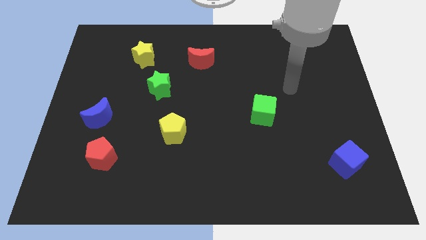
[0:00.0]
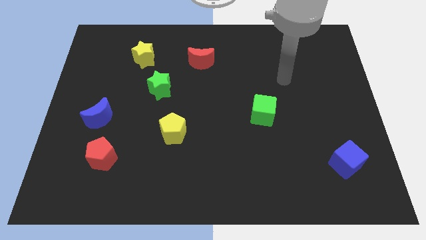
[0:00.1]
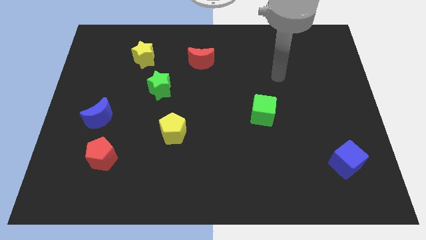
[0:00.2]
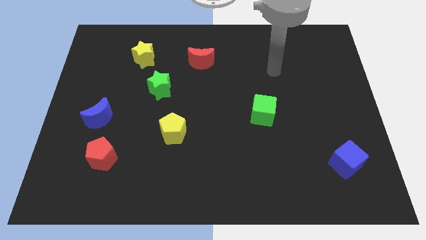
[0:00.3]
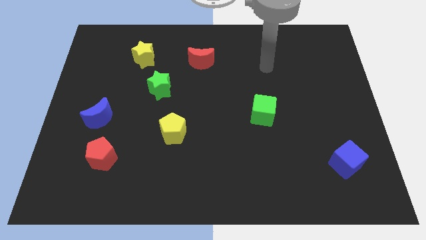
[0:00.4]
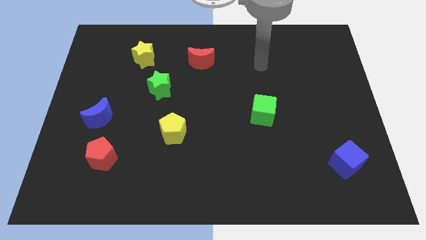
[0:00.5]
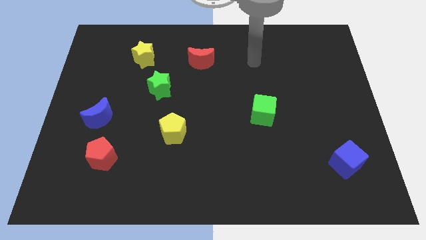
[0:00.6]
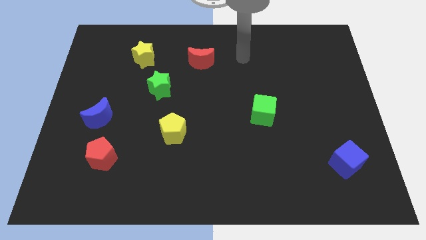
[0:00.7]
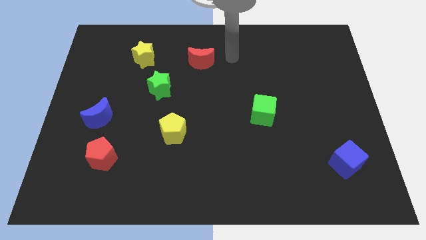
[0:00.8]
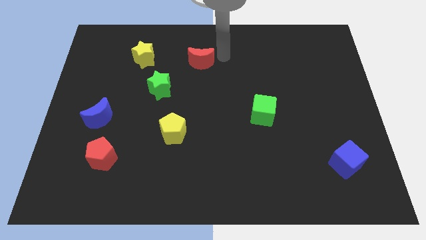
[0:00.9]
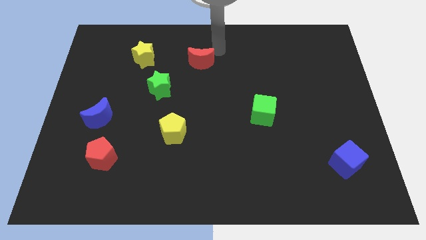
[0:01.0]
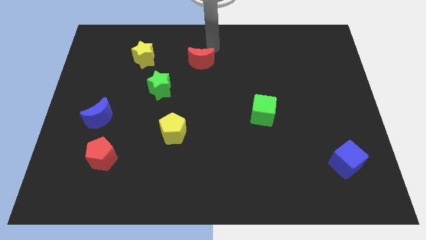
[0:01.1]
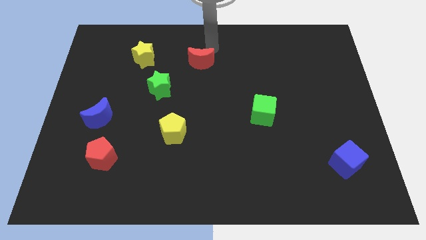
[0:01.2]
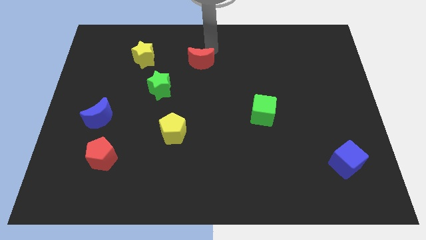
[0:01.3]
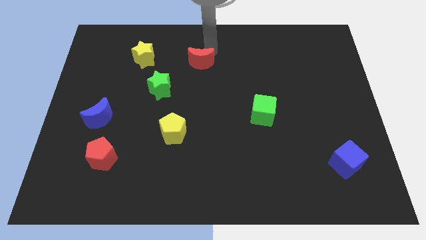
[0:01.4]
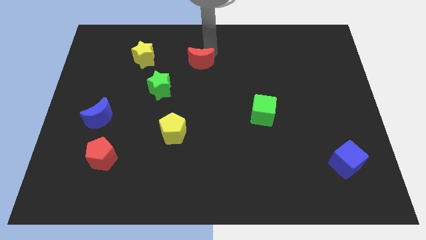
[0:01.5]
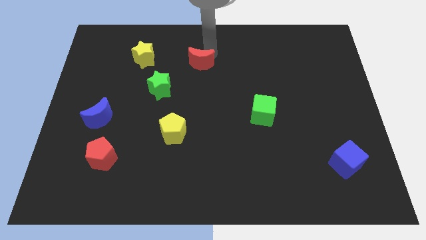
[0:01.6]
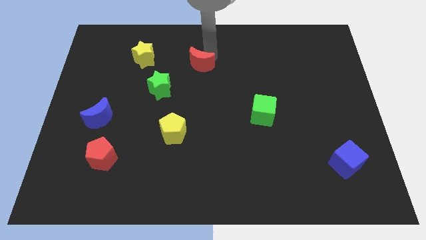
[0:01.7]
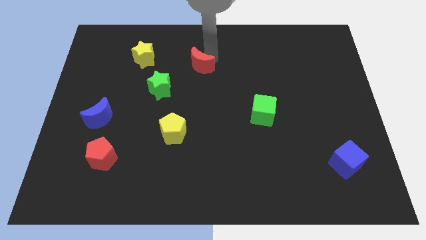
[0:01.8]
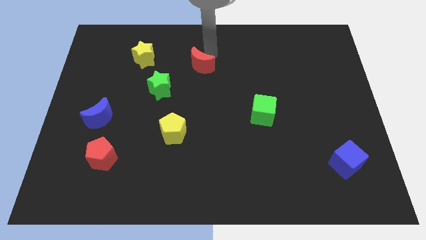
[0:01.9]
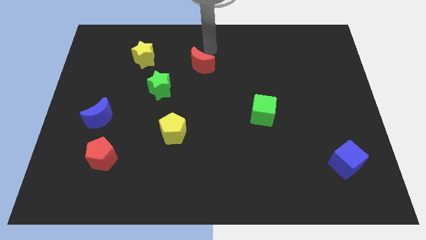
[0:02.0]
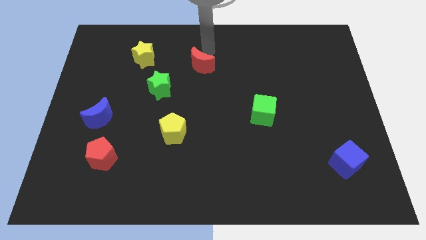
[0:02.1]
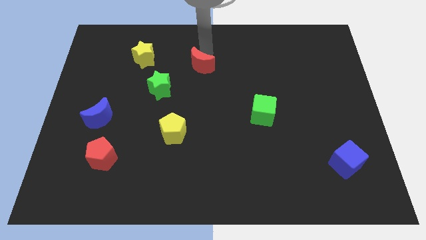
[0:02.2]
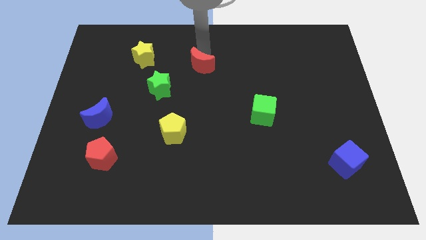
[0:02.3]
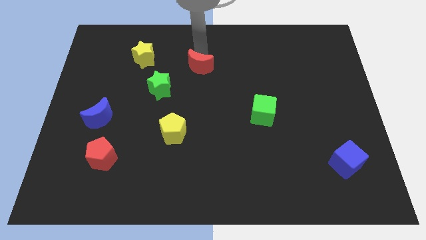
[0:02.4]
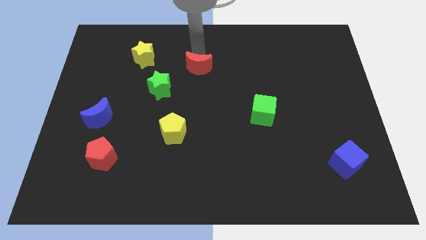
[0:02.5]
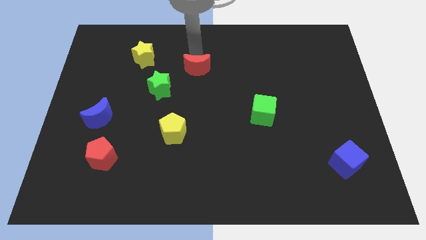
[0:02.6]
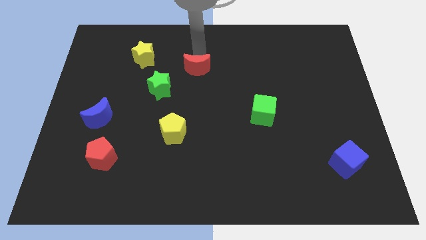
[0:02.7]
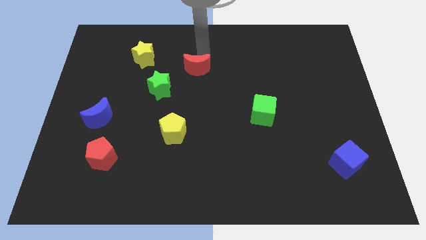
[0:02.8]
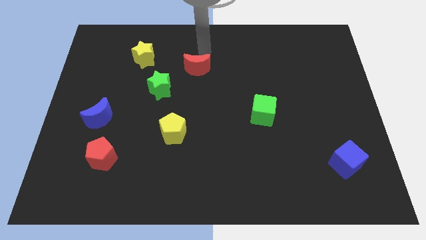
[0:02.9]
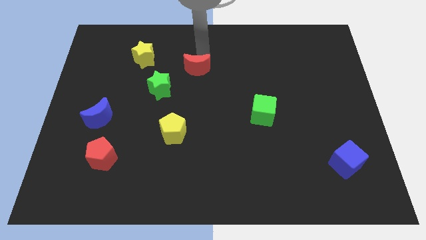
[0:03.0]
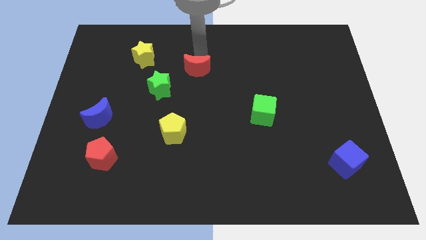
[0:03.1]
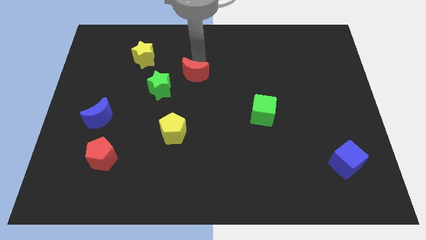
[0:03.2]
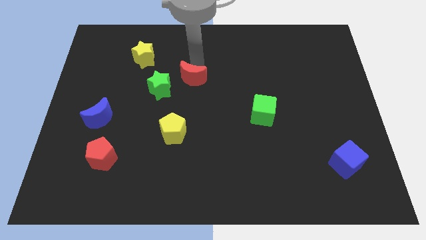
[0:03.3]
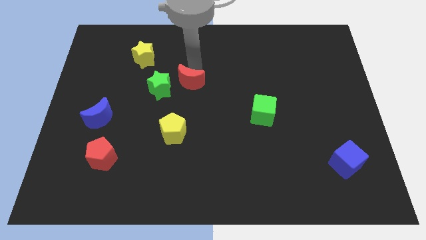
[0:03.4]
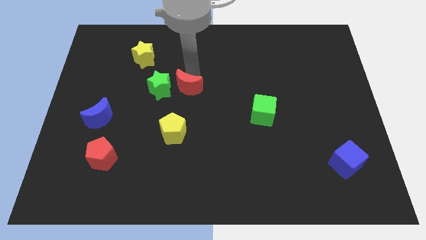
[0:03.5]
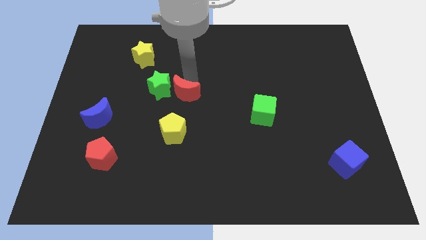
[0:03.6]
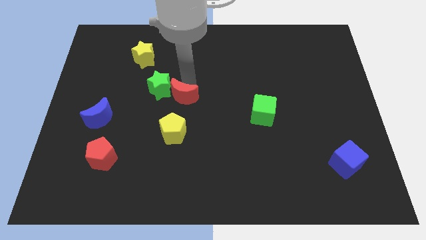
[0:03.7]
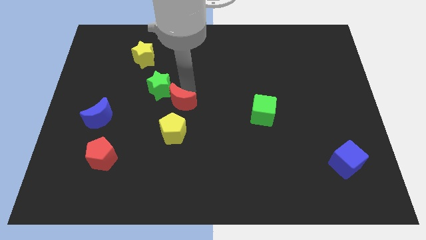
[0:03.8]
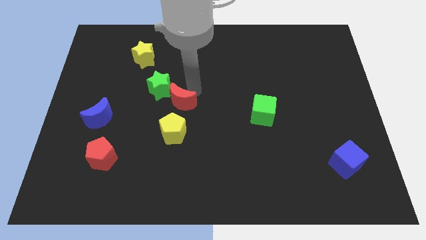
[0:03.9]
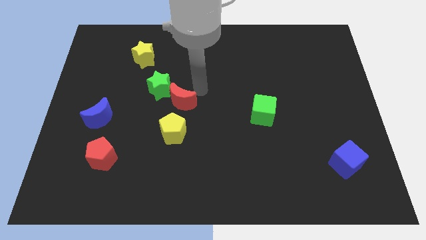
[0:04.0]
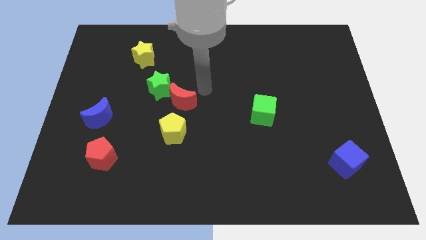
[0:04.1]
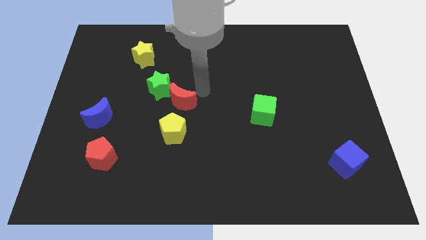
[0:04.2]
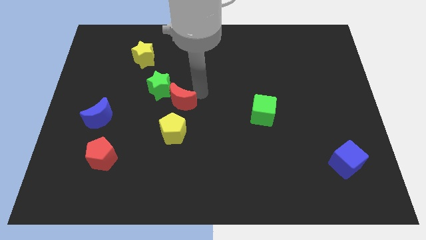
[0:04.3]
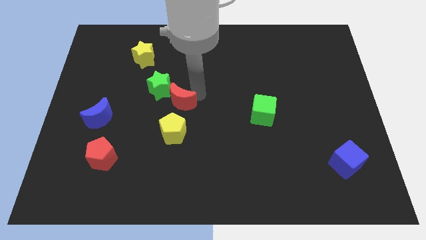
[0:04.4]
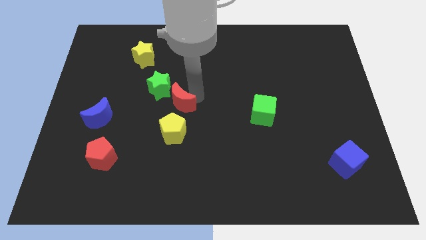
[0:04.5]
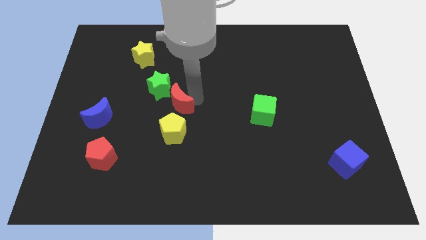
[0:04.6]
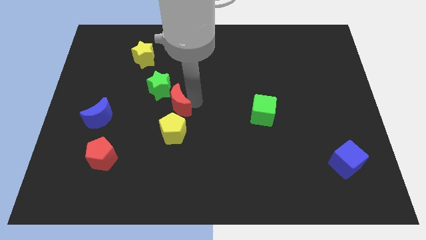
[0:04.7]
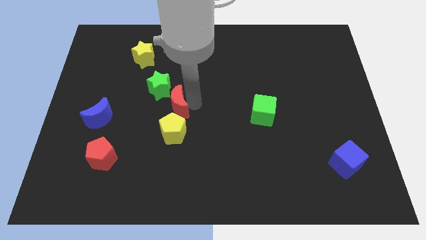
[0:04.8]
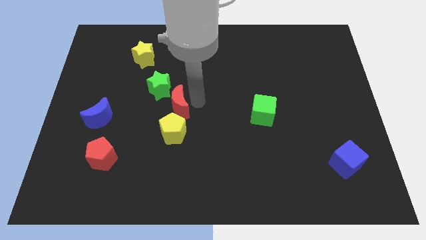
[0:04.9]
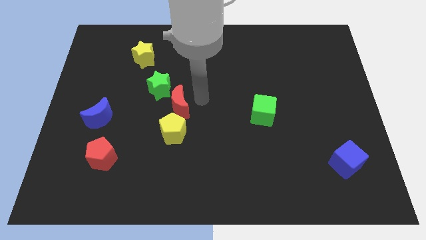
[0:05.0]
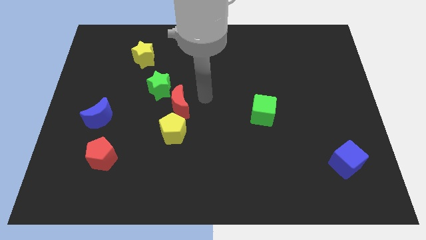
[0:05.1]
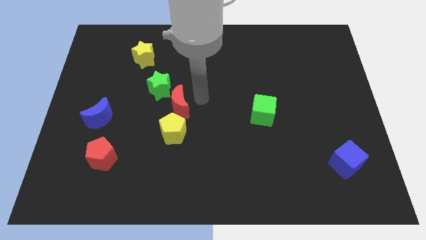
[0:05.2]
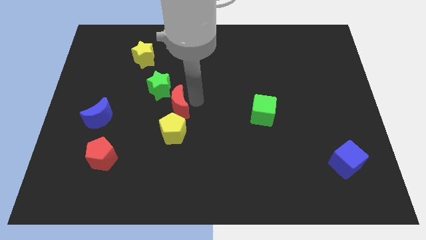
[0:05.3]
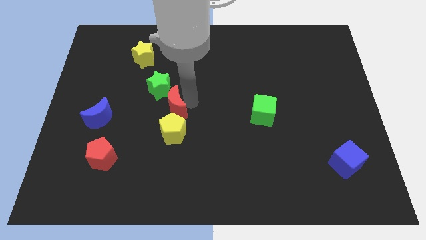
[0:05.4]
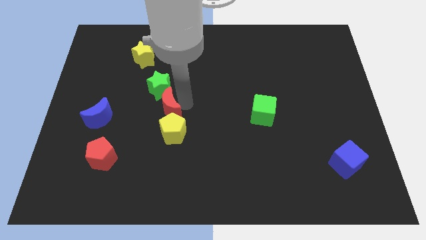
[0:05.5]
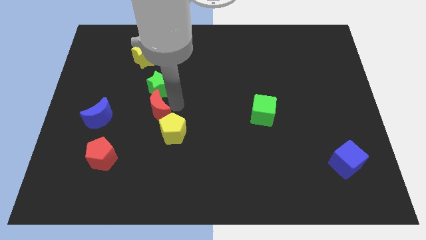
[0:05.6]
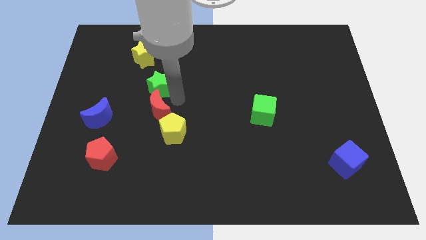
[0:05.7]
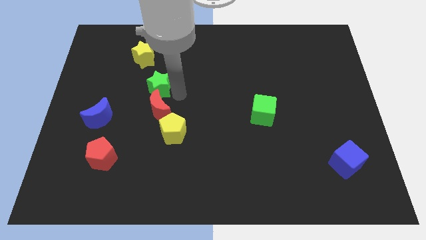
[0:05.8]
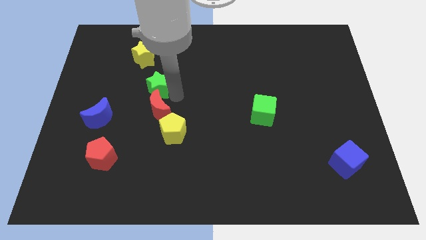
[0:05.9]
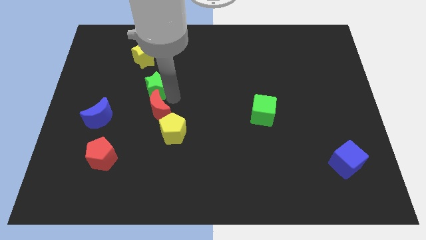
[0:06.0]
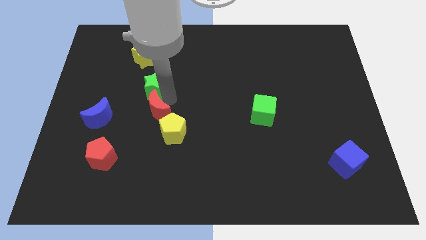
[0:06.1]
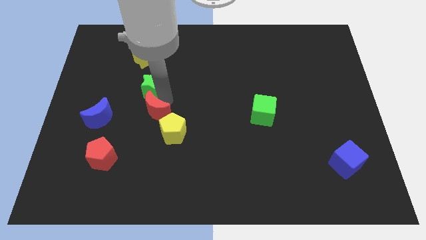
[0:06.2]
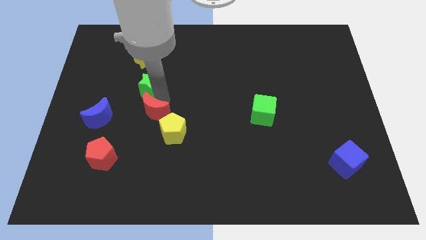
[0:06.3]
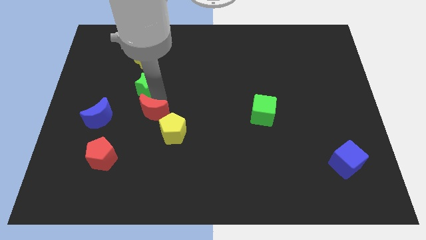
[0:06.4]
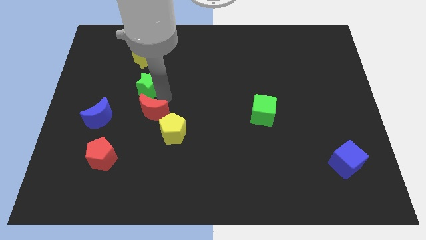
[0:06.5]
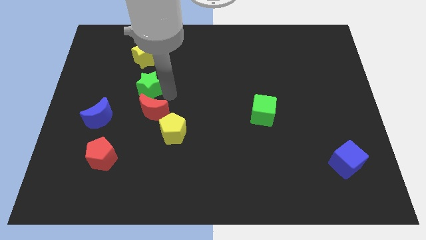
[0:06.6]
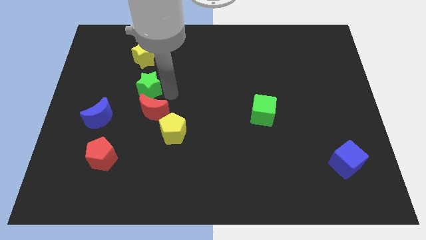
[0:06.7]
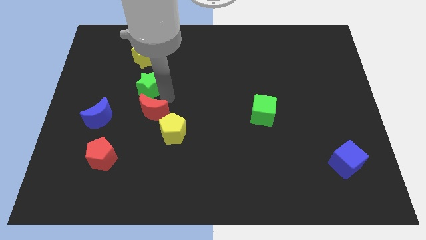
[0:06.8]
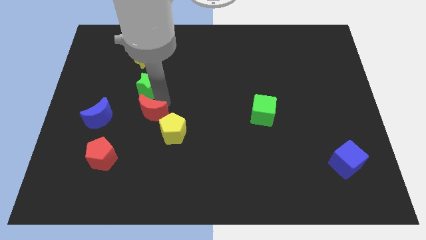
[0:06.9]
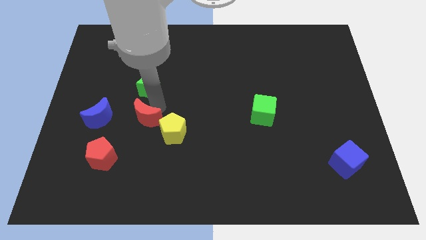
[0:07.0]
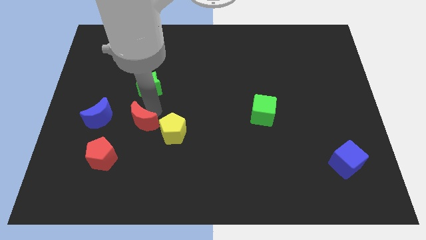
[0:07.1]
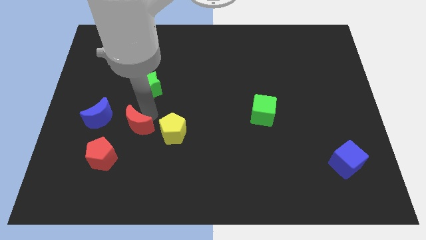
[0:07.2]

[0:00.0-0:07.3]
push the red moon diagonally down and to the right of the blue moon
